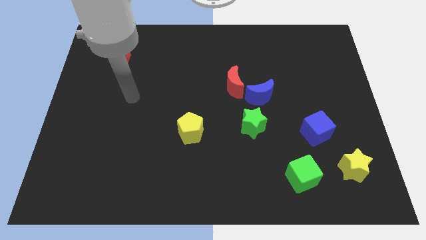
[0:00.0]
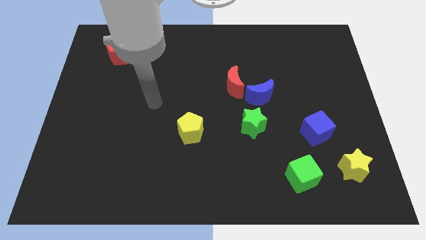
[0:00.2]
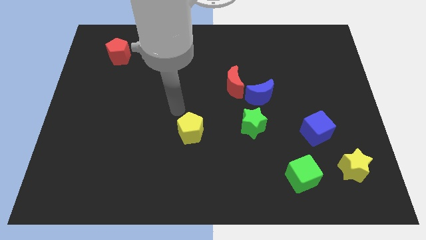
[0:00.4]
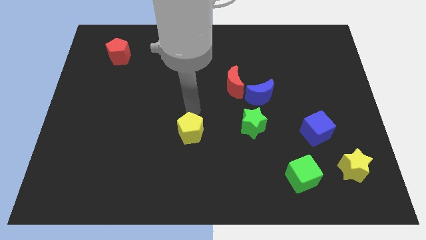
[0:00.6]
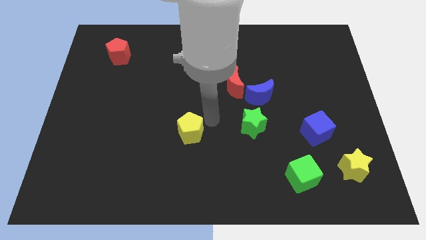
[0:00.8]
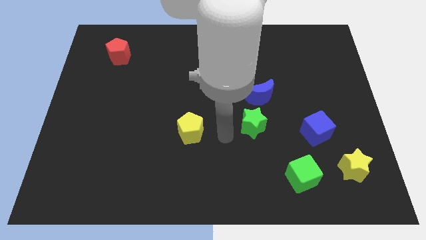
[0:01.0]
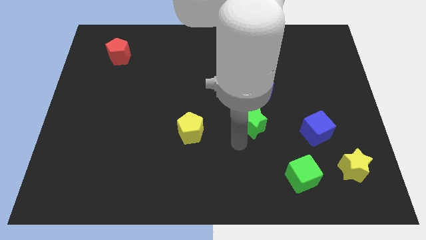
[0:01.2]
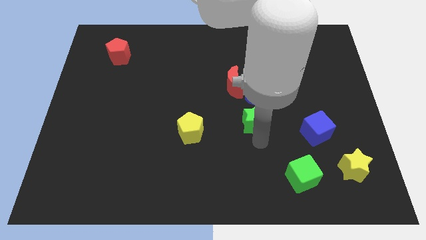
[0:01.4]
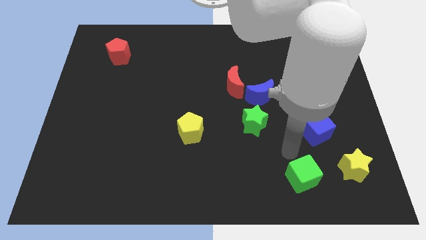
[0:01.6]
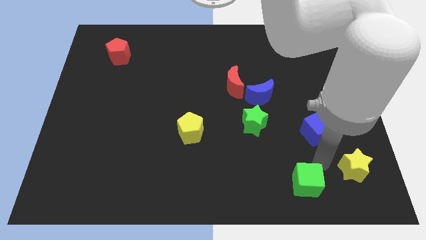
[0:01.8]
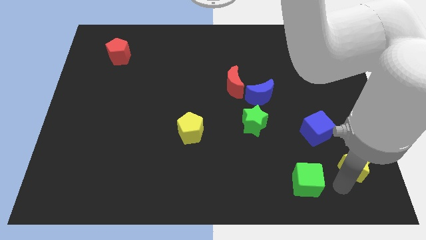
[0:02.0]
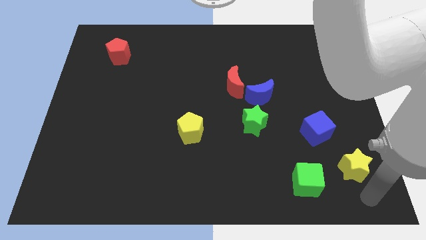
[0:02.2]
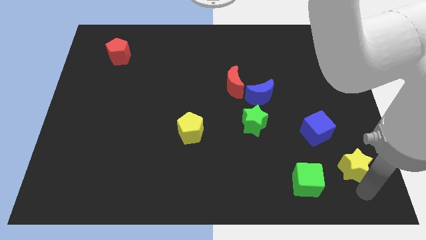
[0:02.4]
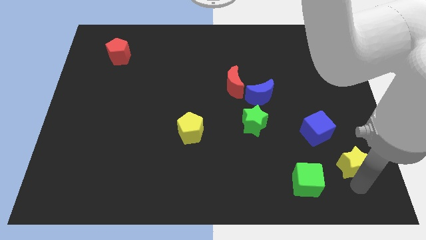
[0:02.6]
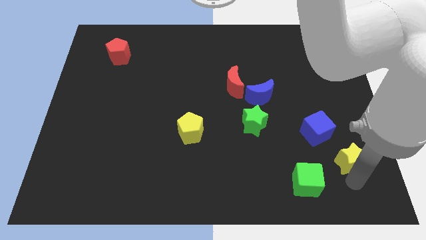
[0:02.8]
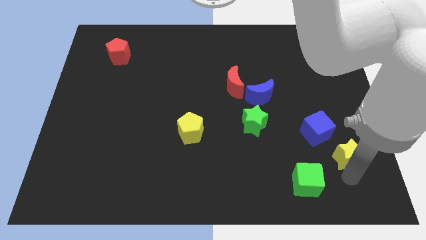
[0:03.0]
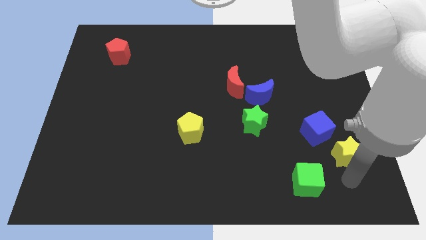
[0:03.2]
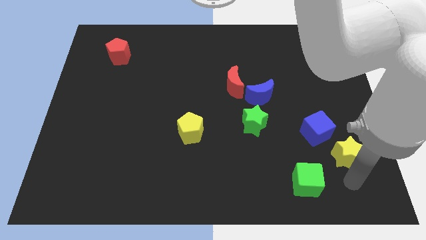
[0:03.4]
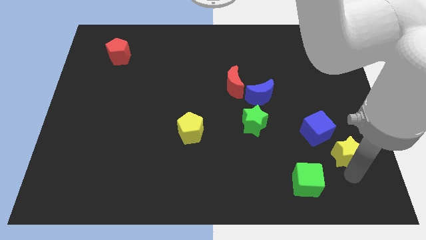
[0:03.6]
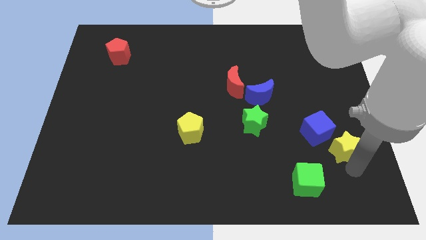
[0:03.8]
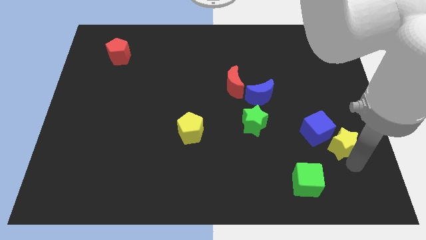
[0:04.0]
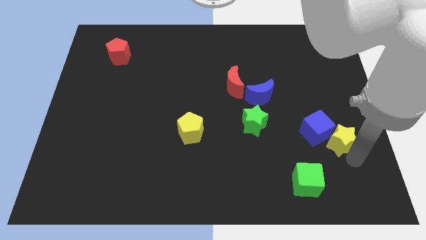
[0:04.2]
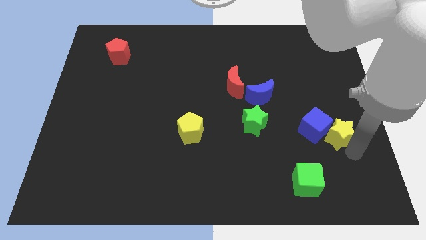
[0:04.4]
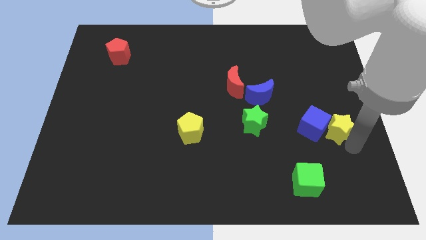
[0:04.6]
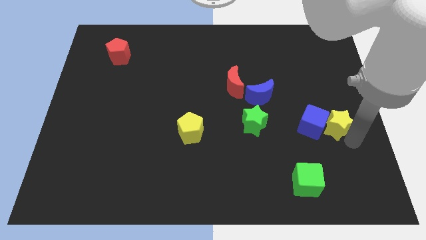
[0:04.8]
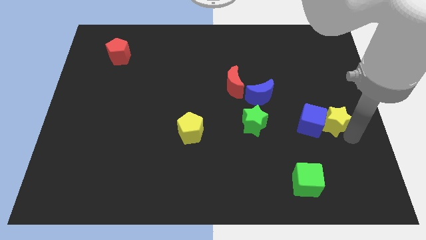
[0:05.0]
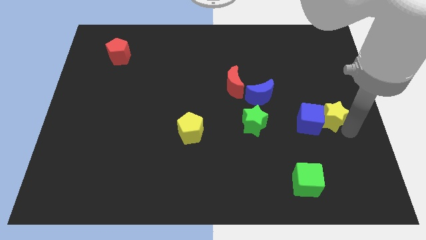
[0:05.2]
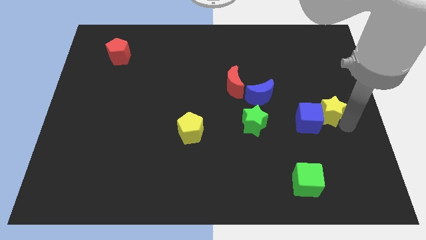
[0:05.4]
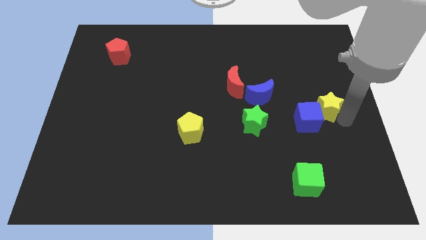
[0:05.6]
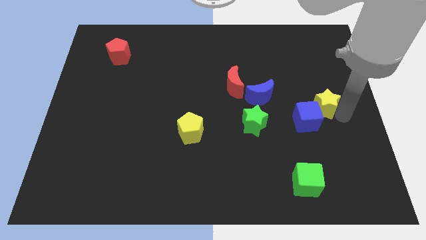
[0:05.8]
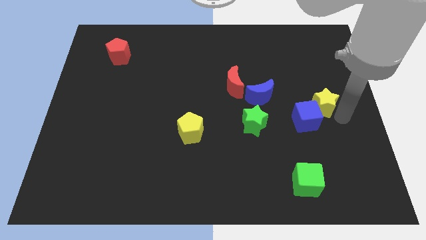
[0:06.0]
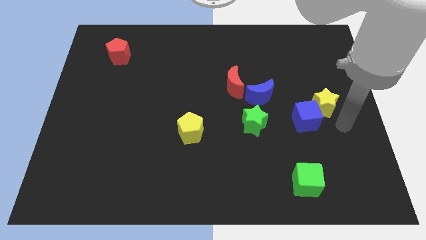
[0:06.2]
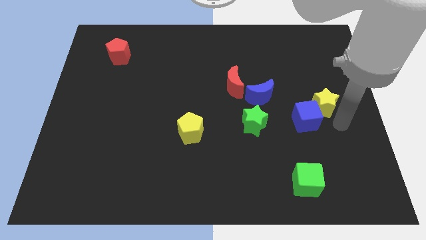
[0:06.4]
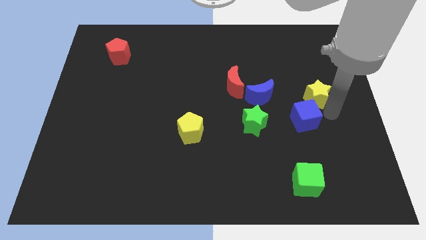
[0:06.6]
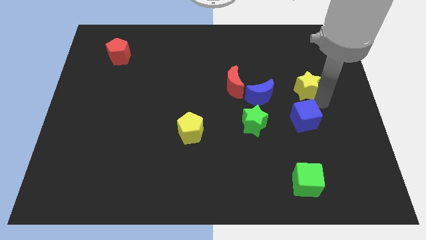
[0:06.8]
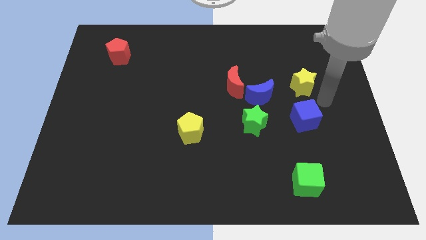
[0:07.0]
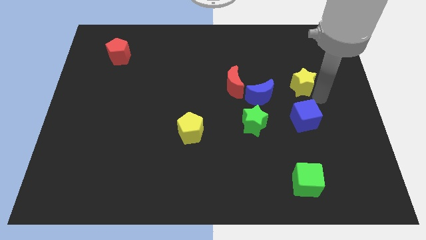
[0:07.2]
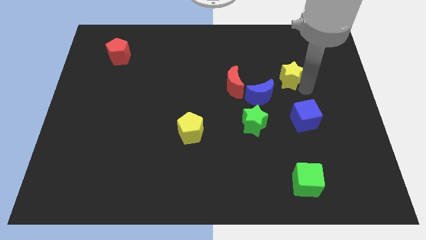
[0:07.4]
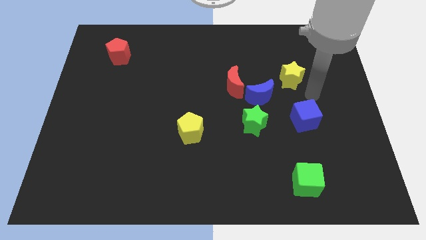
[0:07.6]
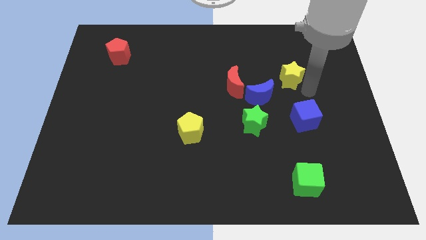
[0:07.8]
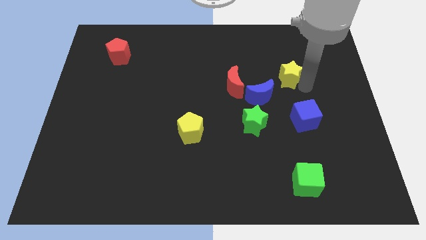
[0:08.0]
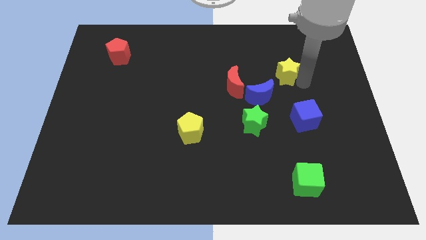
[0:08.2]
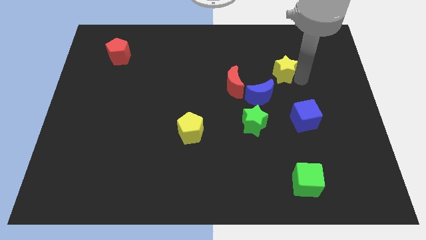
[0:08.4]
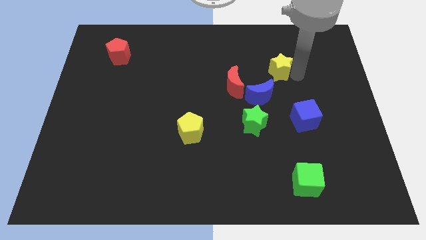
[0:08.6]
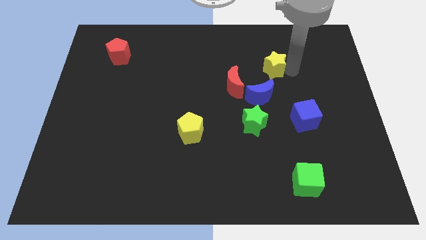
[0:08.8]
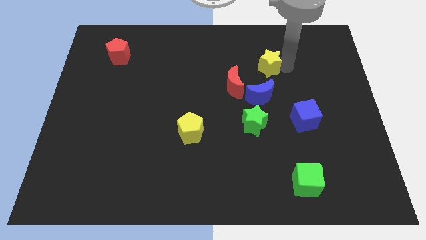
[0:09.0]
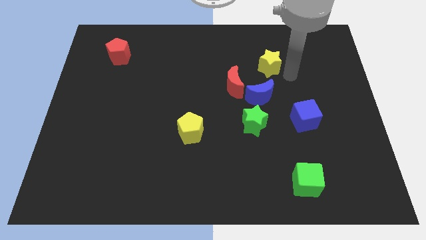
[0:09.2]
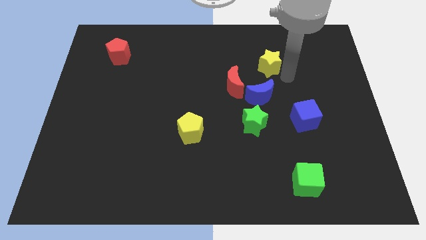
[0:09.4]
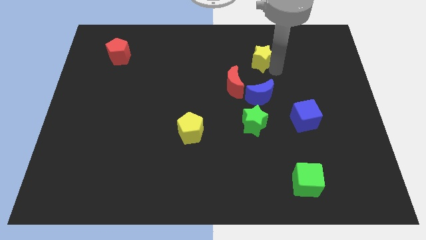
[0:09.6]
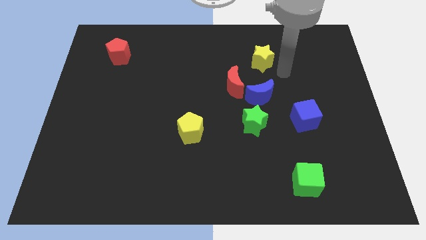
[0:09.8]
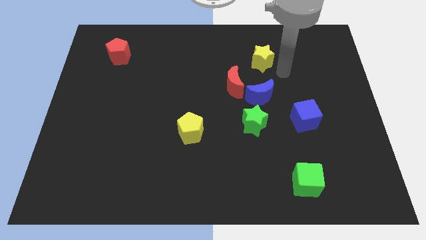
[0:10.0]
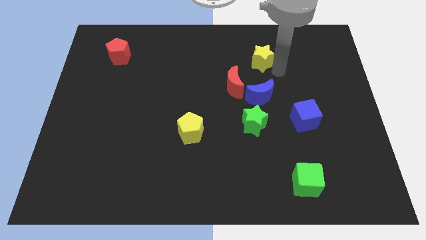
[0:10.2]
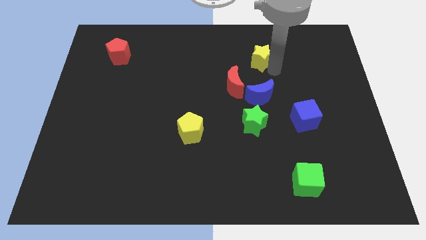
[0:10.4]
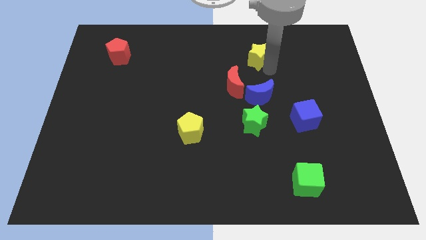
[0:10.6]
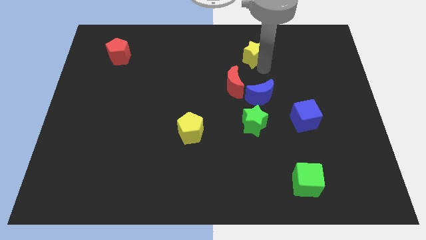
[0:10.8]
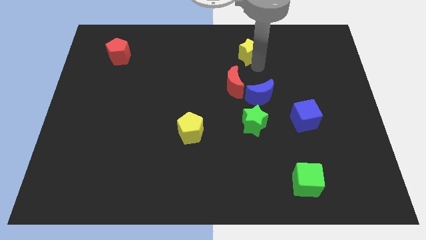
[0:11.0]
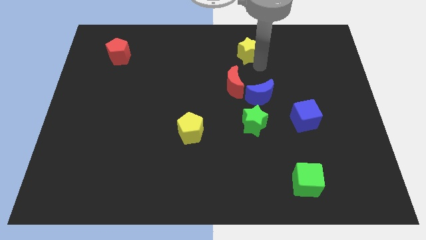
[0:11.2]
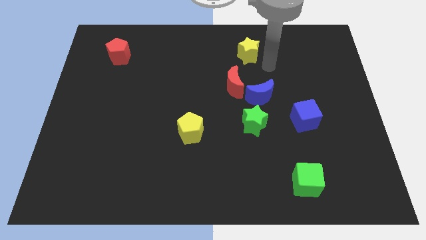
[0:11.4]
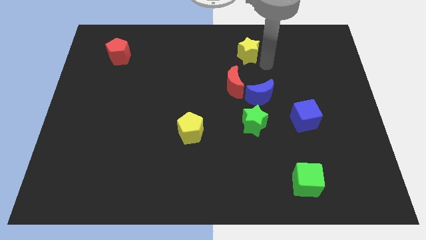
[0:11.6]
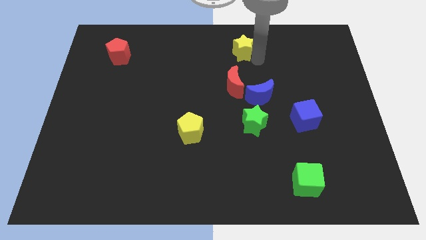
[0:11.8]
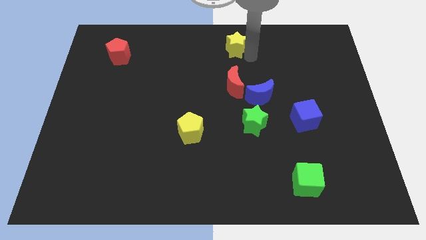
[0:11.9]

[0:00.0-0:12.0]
slide the yellow star to the top side
